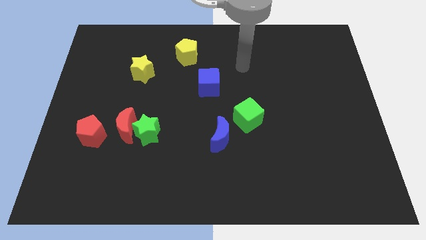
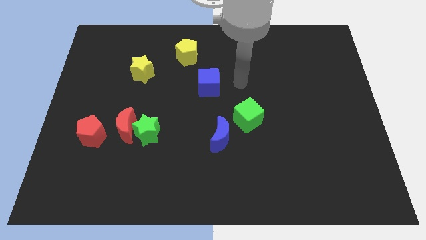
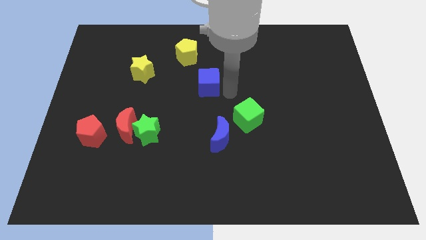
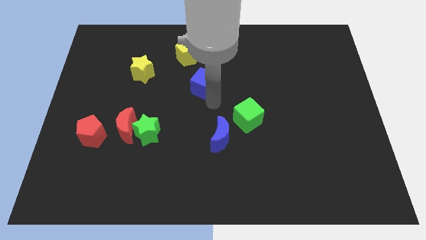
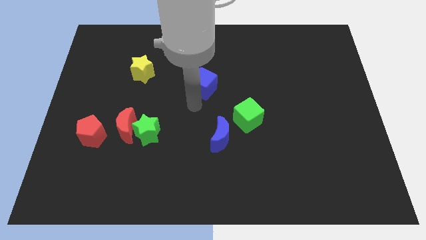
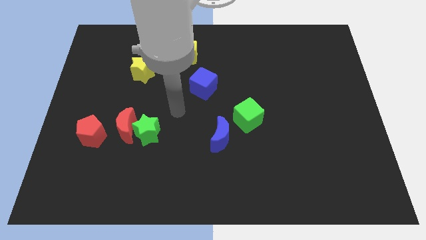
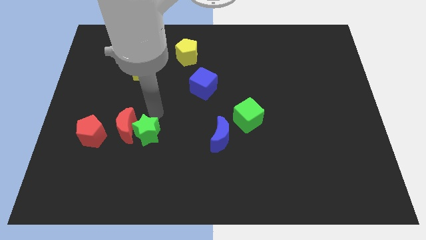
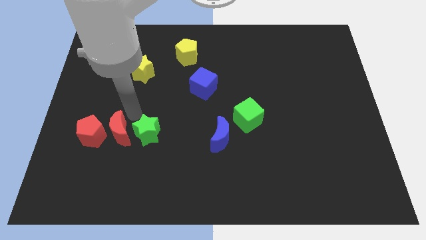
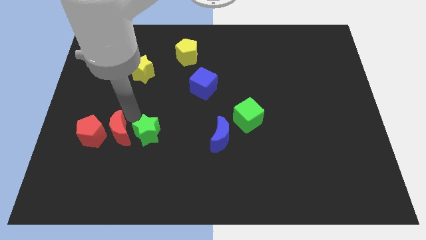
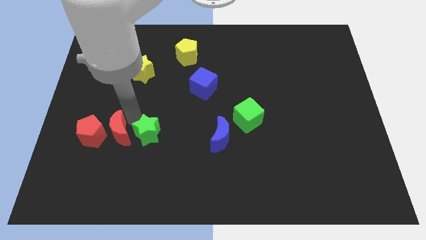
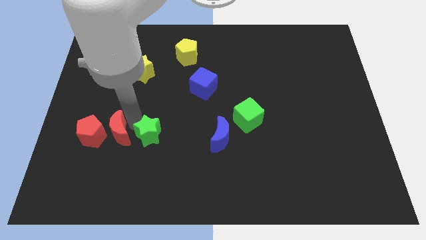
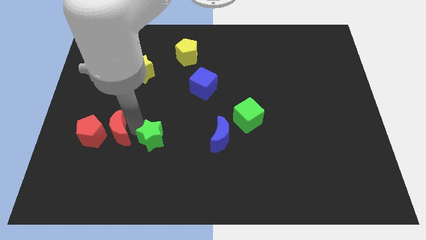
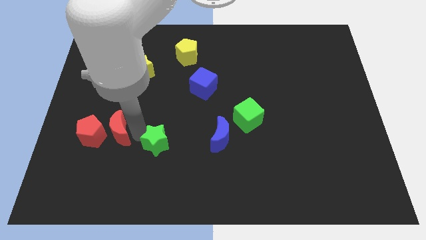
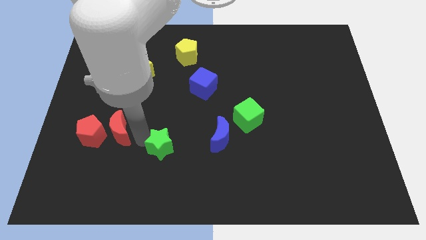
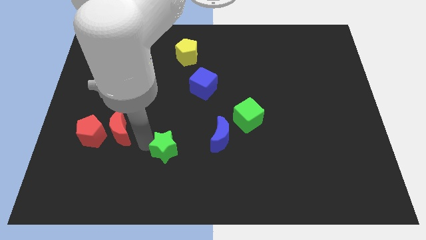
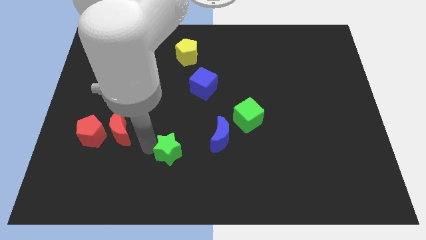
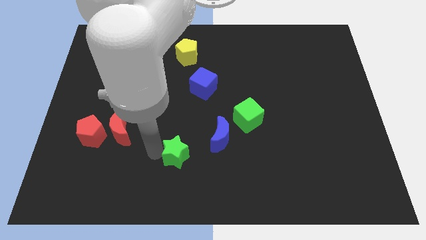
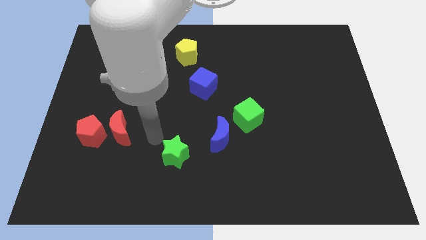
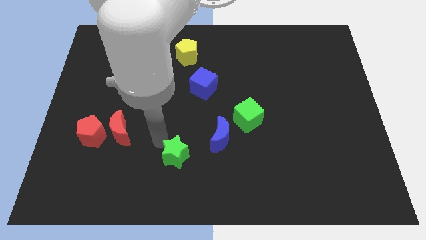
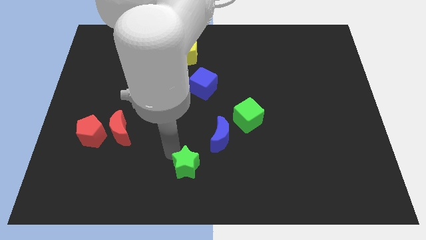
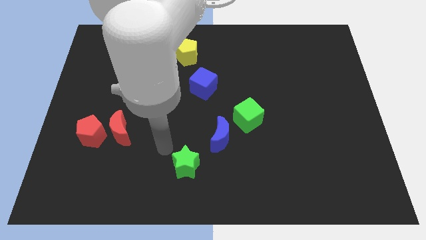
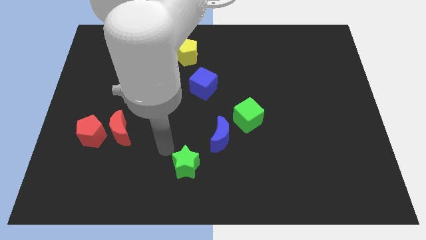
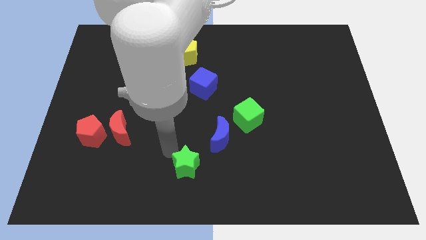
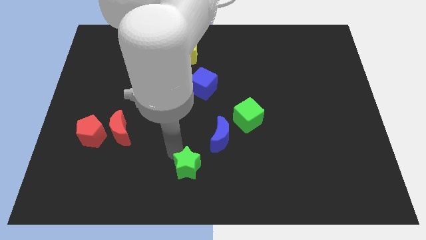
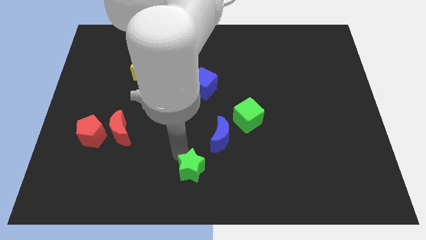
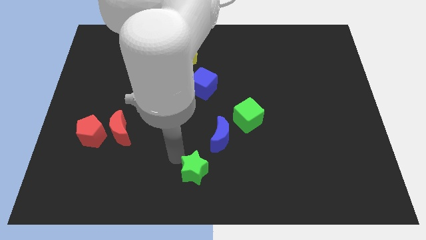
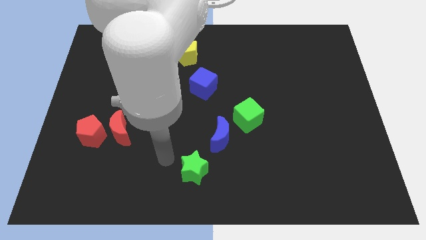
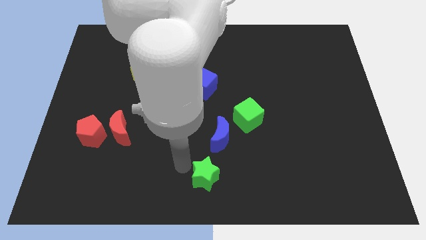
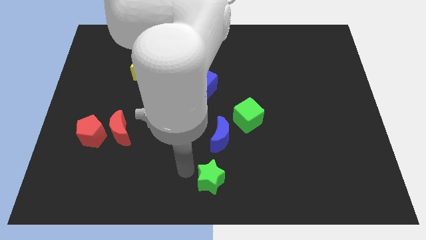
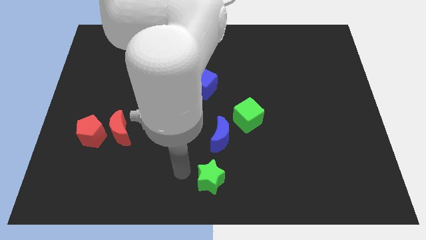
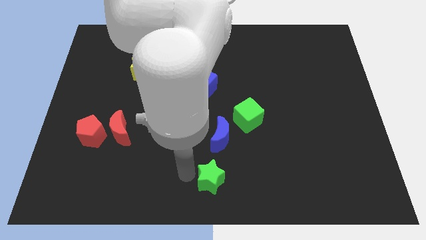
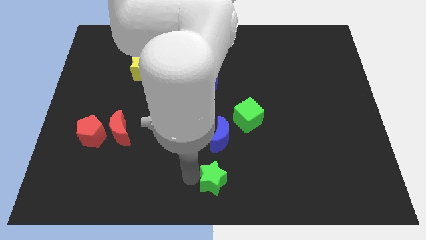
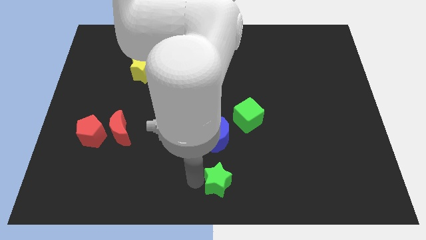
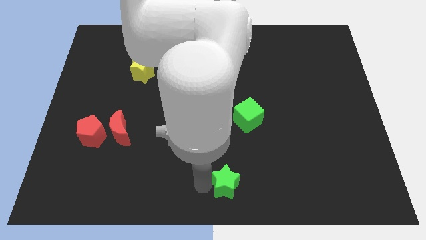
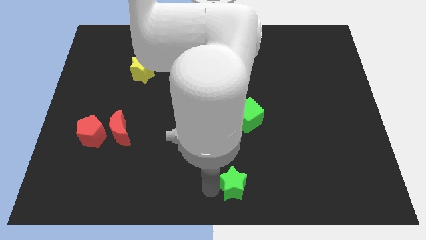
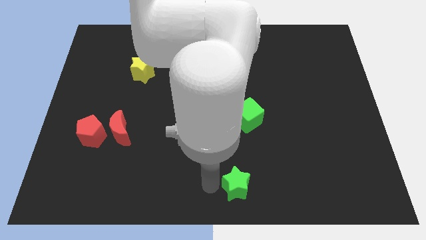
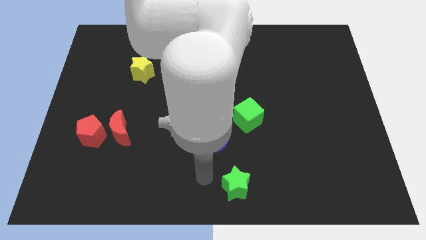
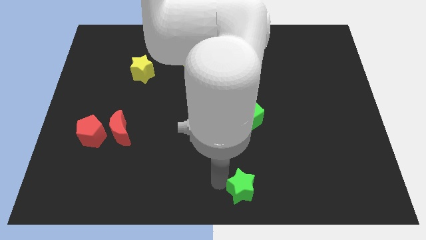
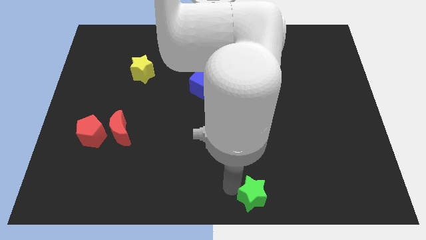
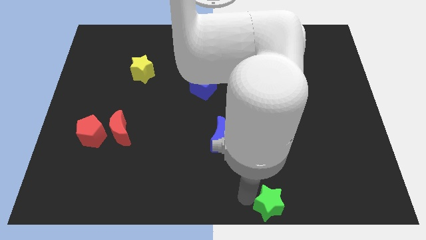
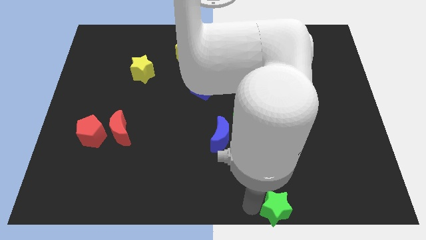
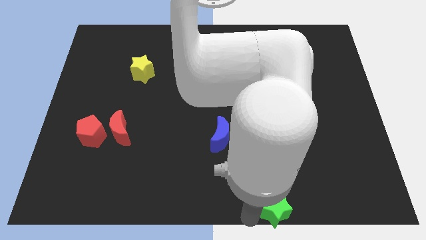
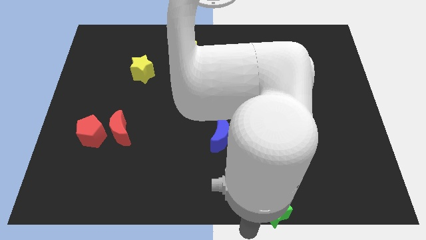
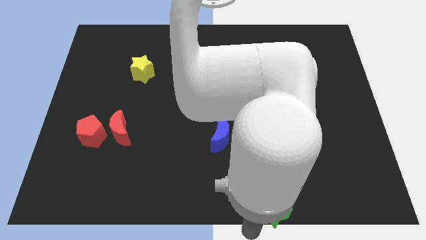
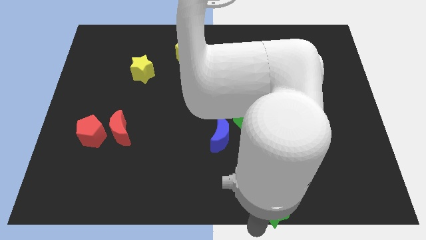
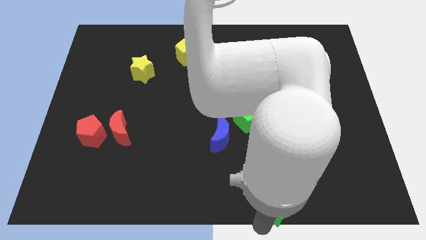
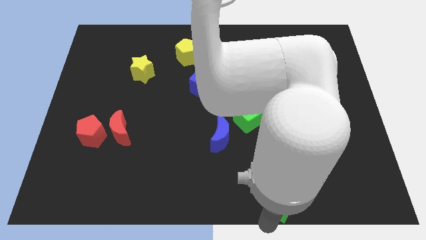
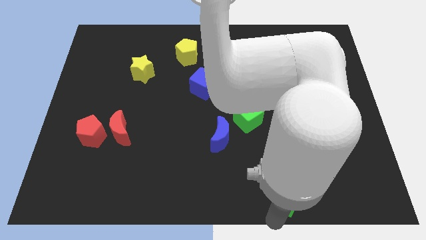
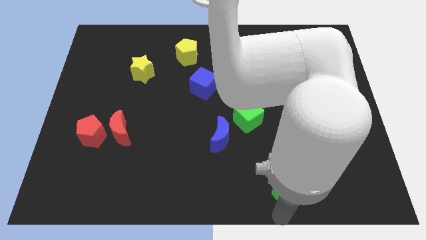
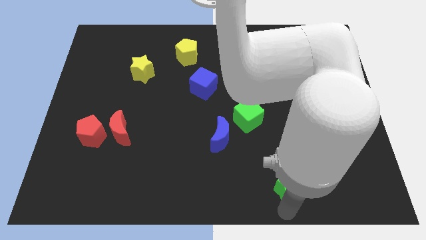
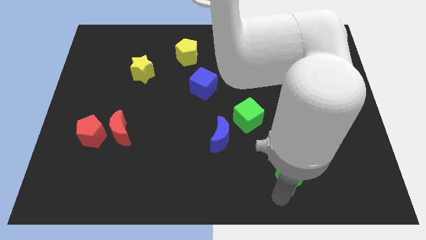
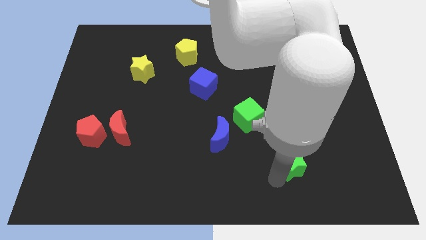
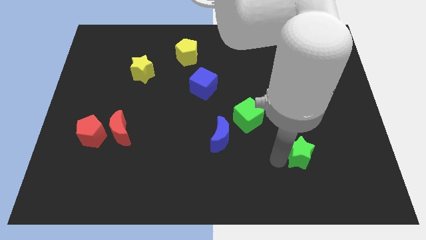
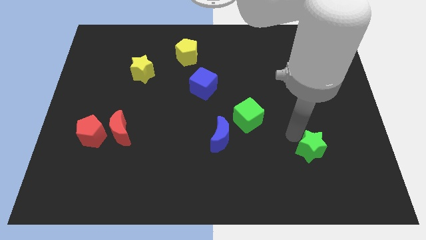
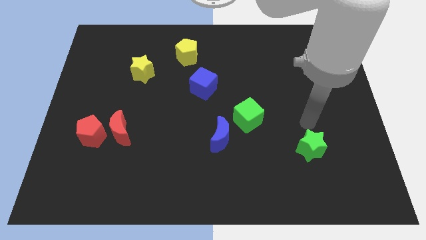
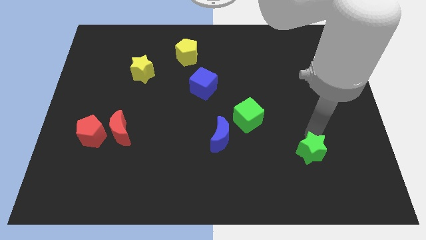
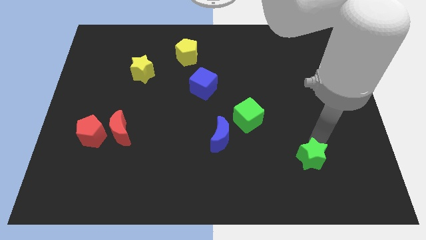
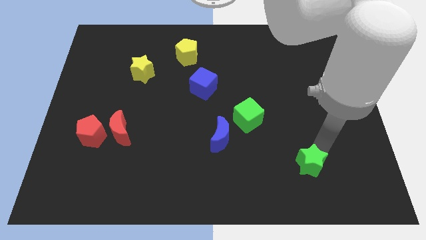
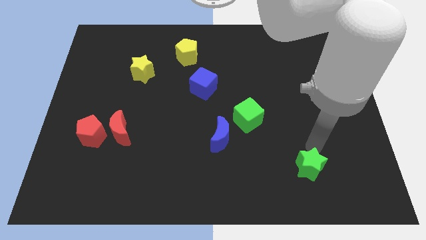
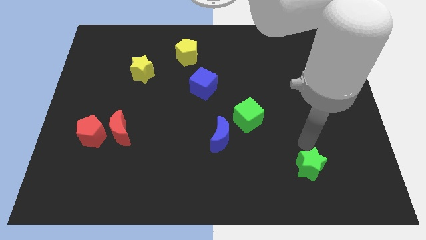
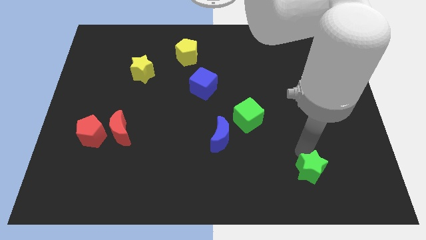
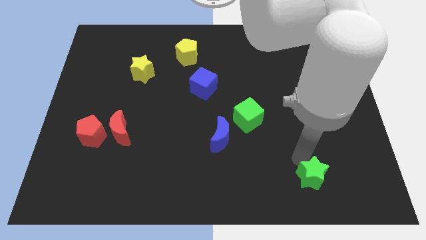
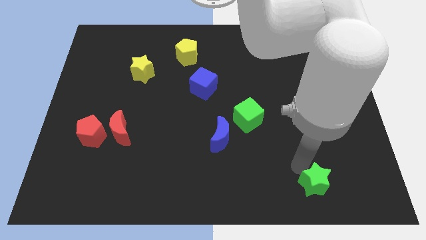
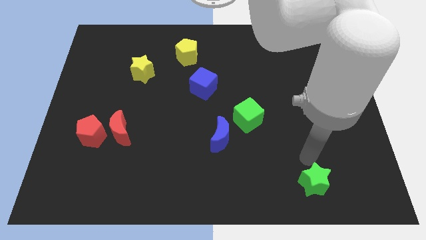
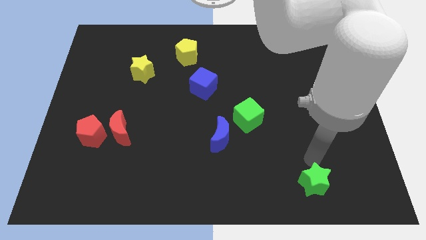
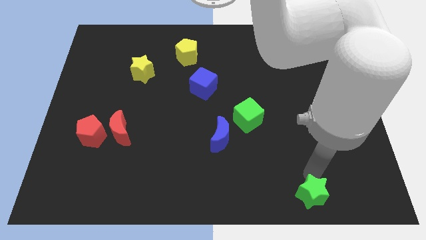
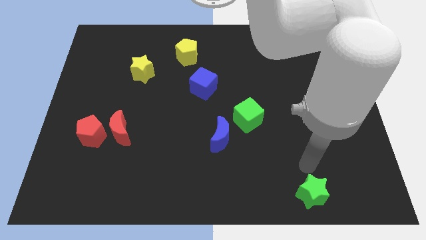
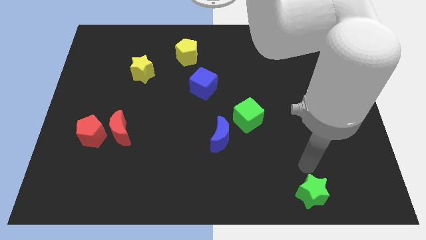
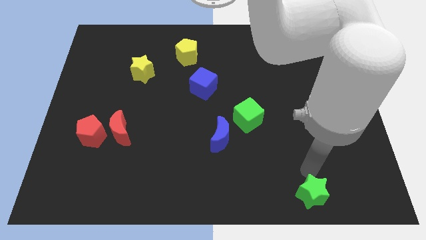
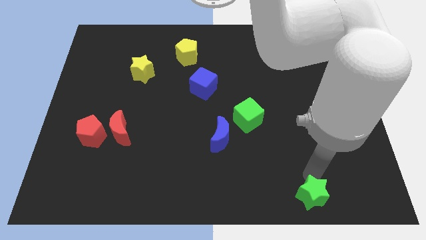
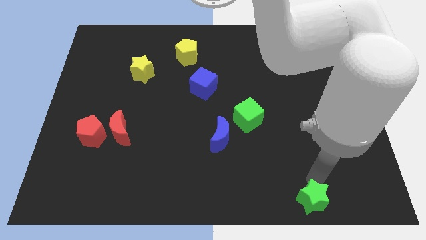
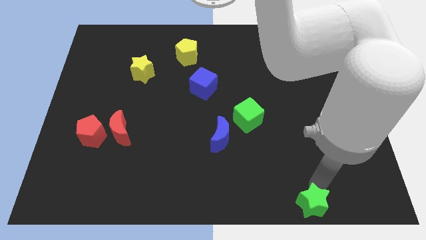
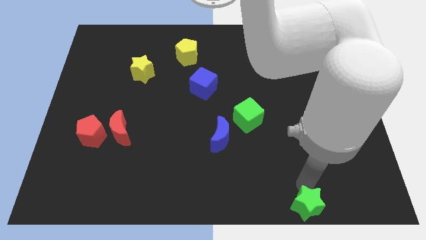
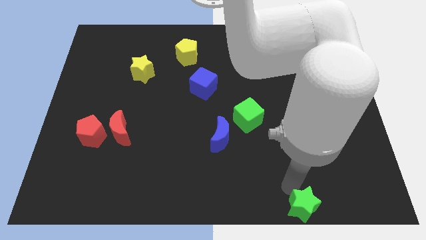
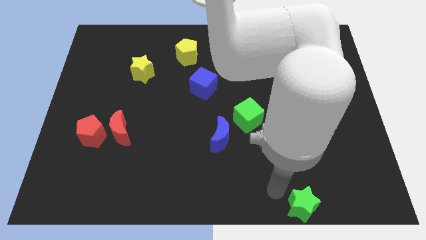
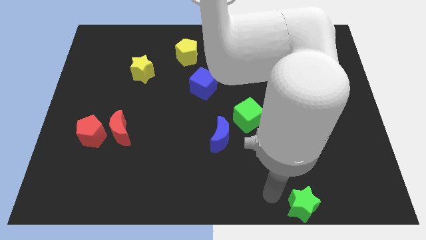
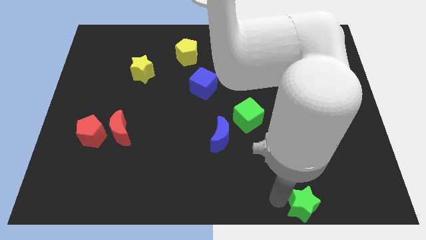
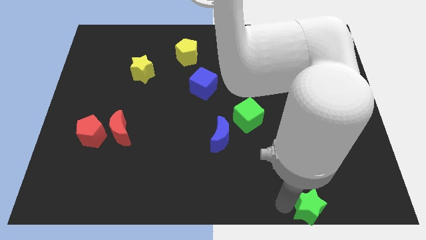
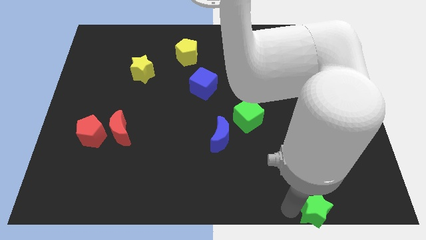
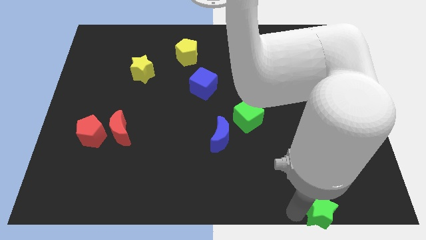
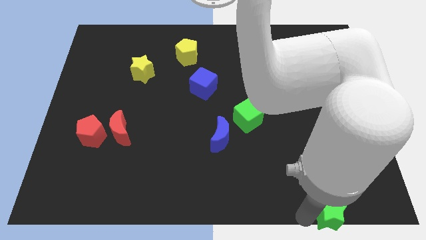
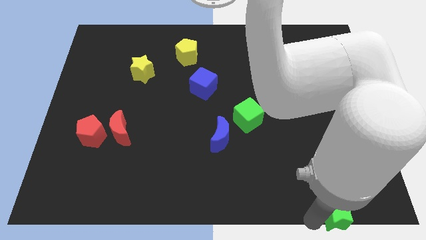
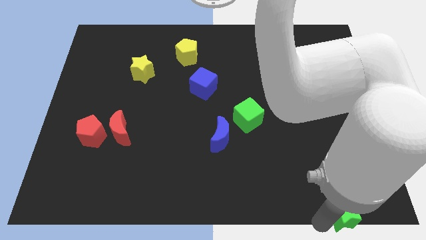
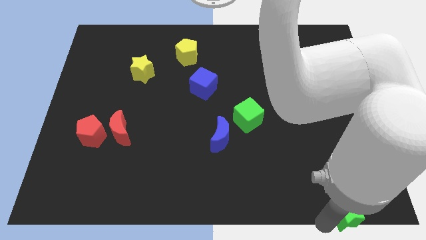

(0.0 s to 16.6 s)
push the green star to the bottom right corner
